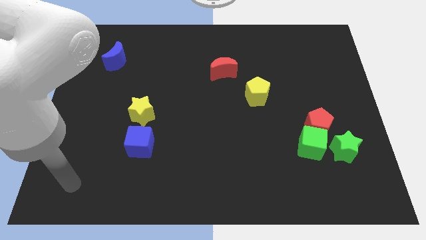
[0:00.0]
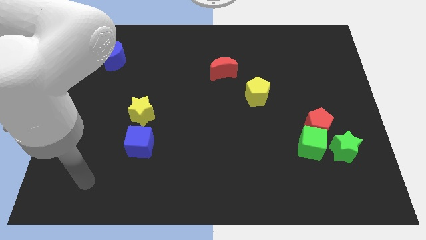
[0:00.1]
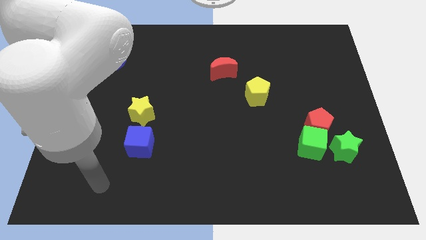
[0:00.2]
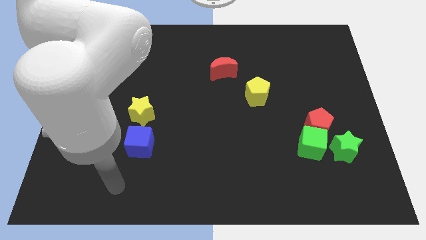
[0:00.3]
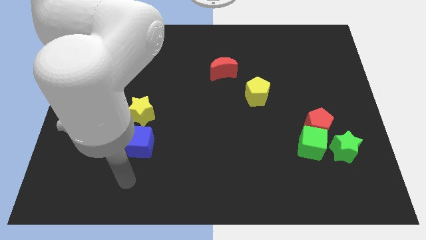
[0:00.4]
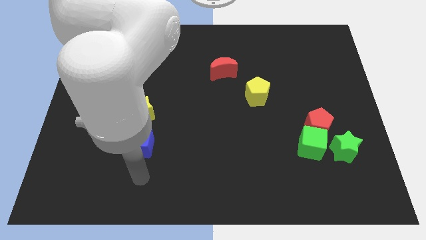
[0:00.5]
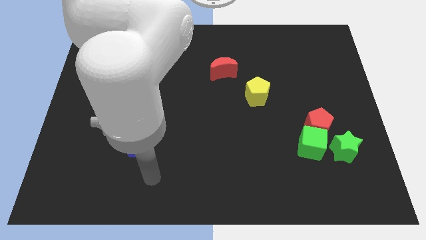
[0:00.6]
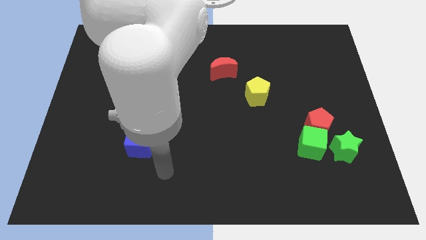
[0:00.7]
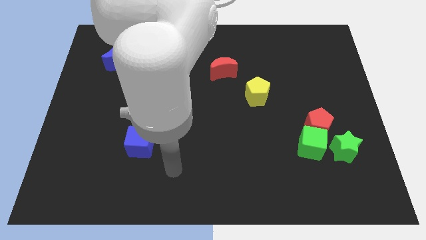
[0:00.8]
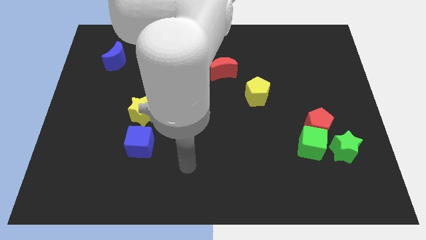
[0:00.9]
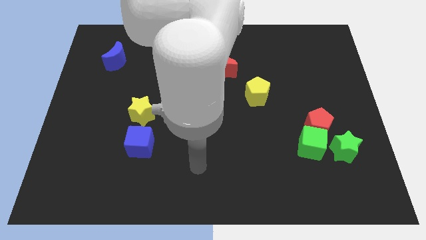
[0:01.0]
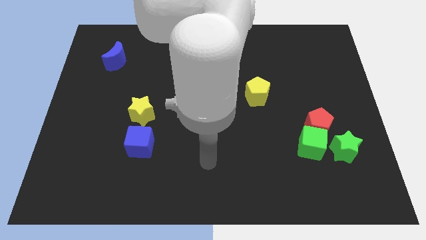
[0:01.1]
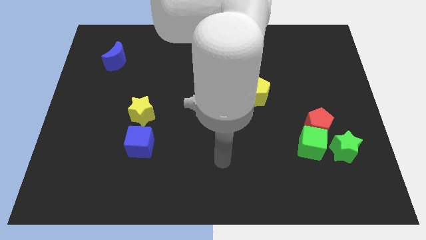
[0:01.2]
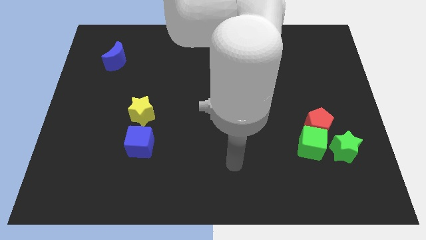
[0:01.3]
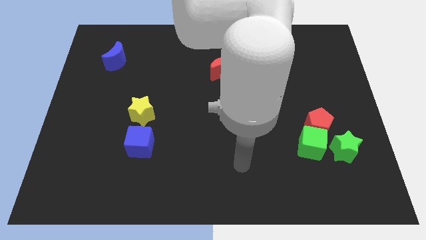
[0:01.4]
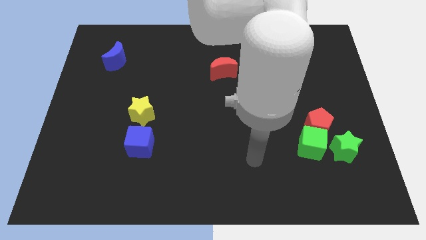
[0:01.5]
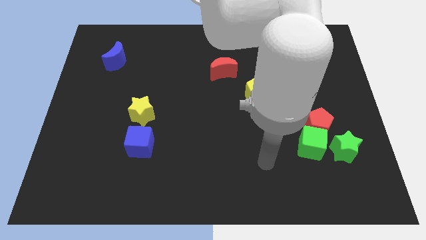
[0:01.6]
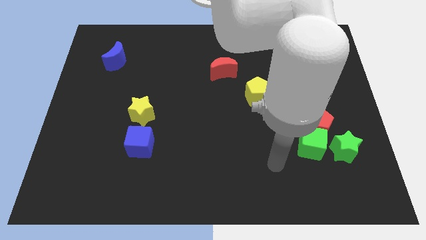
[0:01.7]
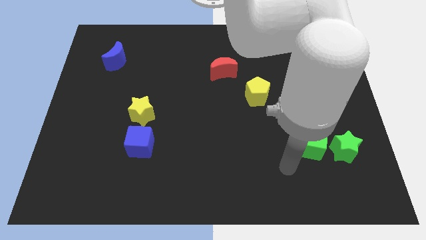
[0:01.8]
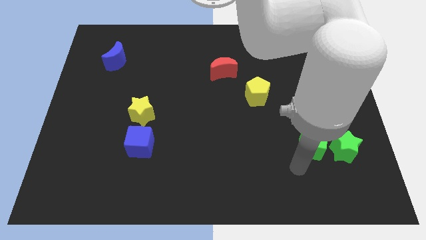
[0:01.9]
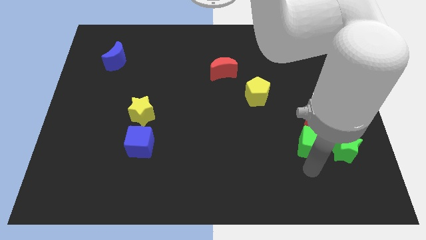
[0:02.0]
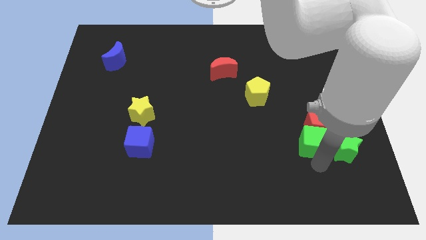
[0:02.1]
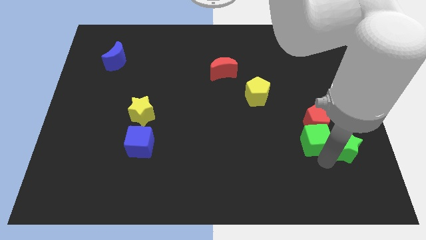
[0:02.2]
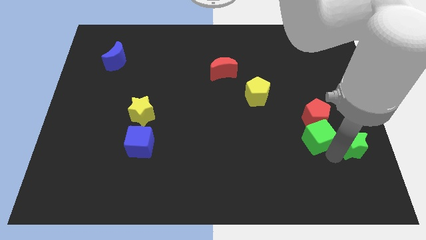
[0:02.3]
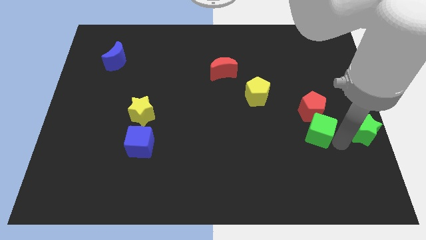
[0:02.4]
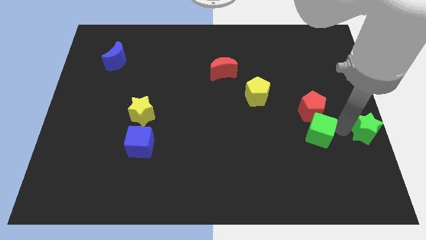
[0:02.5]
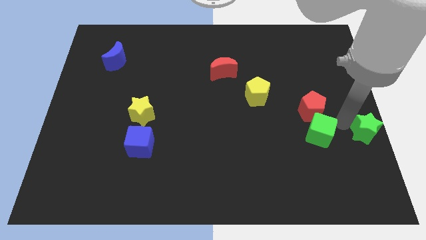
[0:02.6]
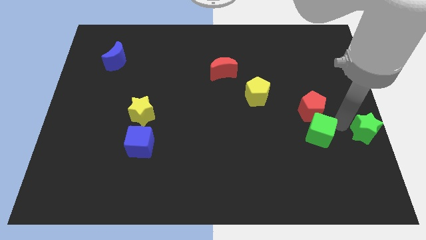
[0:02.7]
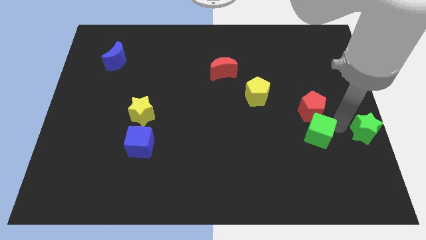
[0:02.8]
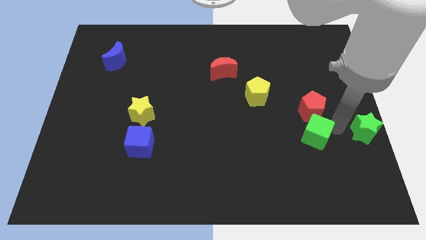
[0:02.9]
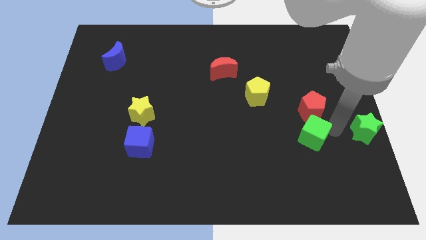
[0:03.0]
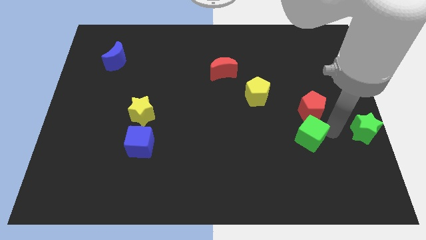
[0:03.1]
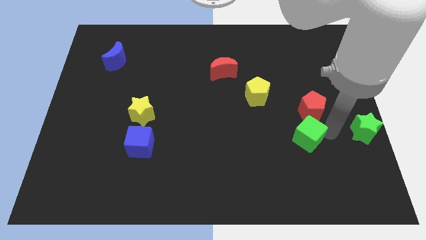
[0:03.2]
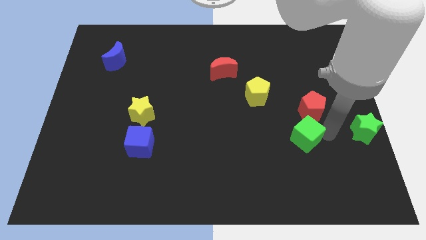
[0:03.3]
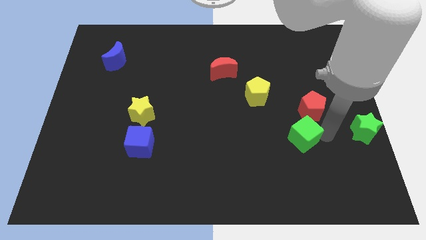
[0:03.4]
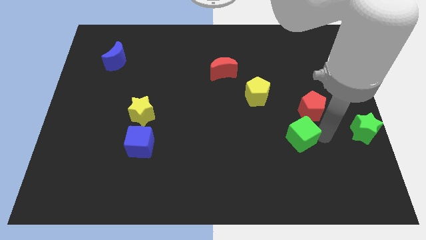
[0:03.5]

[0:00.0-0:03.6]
separate the green cube from the red pentagon and green star

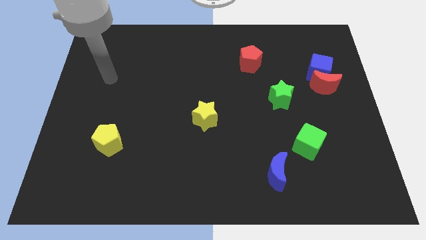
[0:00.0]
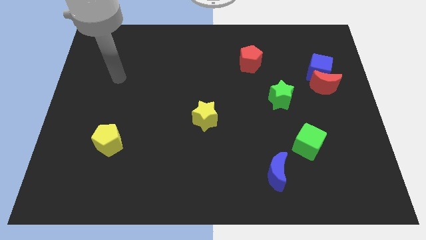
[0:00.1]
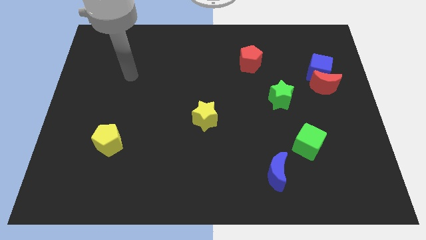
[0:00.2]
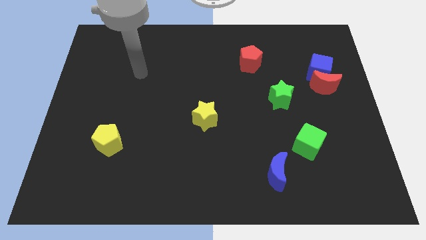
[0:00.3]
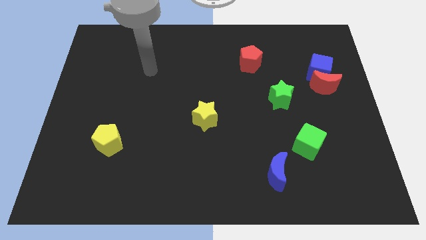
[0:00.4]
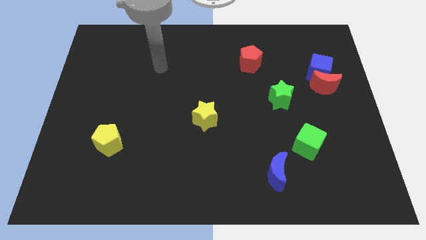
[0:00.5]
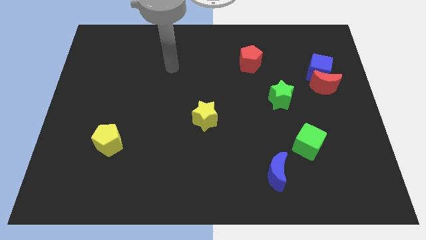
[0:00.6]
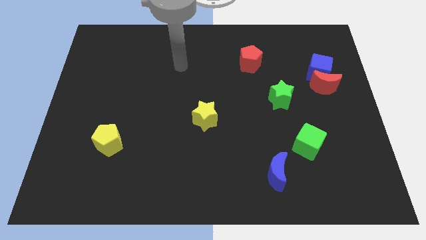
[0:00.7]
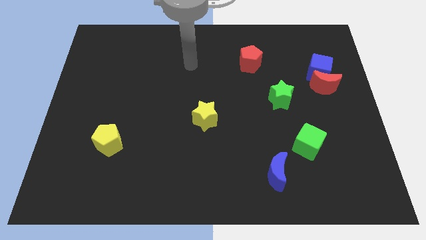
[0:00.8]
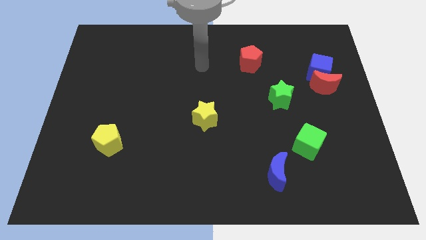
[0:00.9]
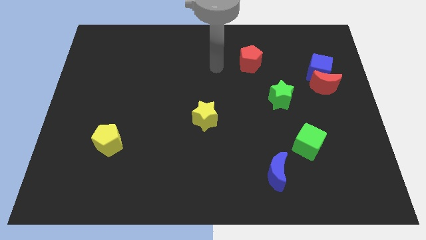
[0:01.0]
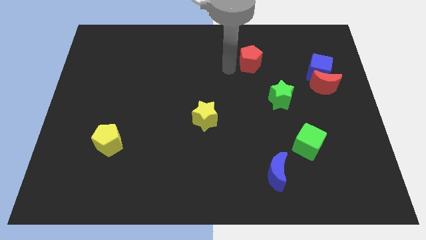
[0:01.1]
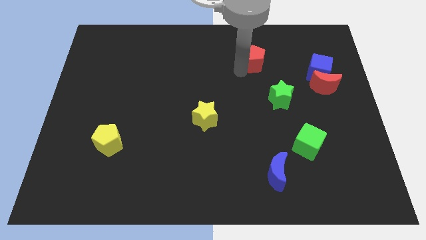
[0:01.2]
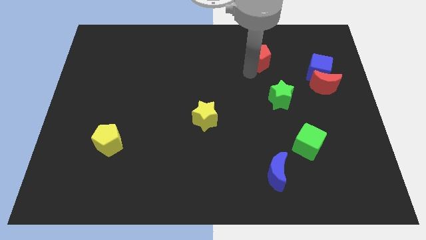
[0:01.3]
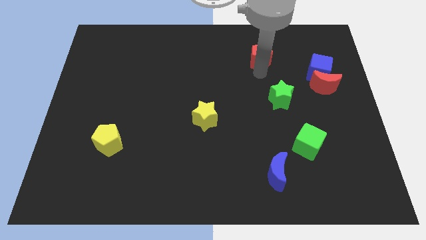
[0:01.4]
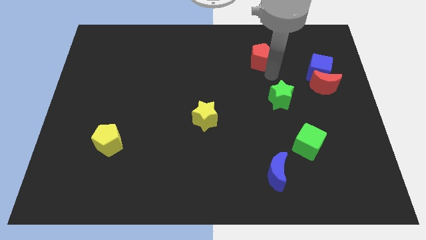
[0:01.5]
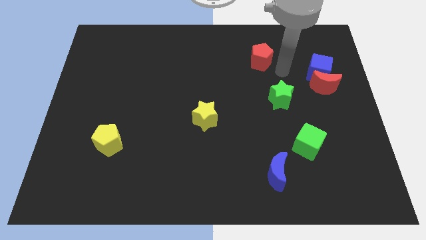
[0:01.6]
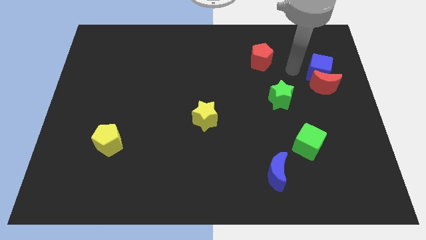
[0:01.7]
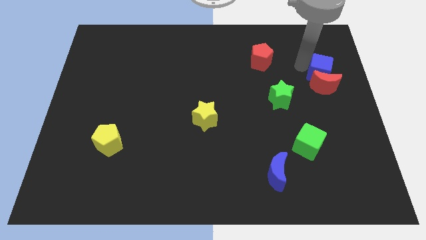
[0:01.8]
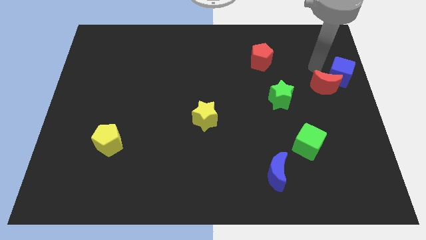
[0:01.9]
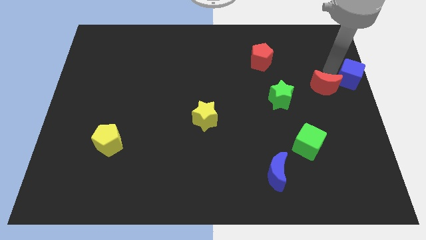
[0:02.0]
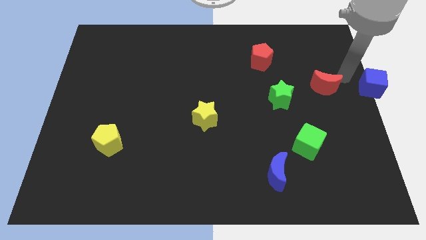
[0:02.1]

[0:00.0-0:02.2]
separate the red moon from the blue cube

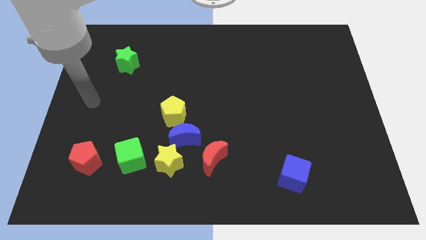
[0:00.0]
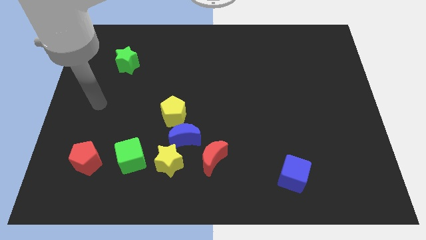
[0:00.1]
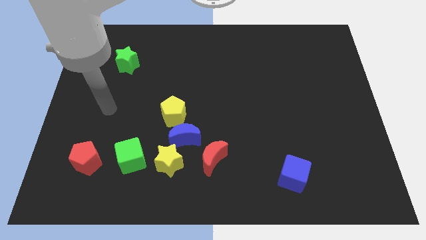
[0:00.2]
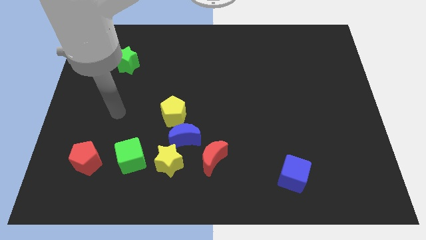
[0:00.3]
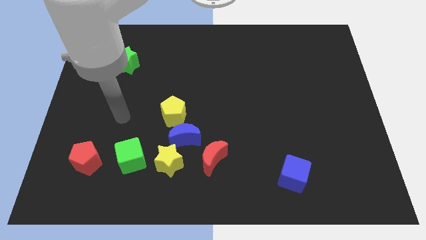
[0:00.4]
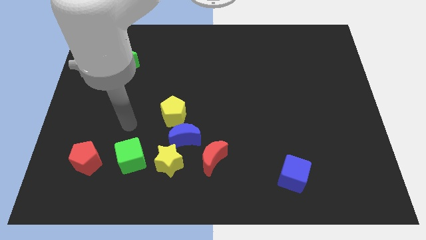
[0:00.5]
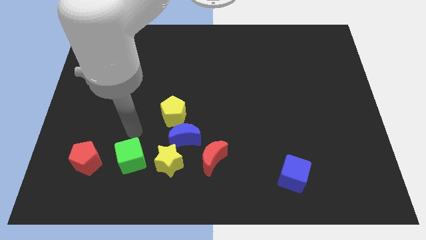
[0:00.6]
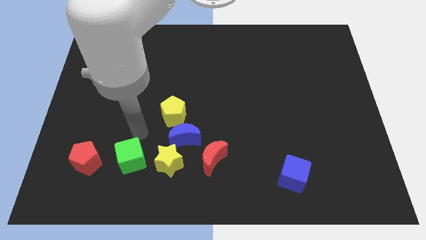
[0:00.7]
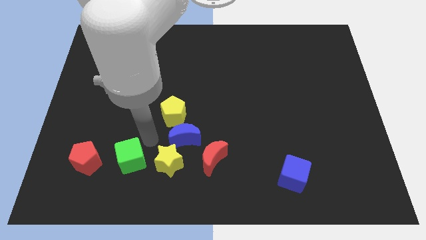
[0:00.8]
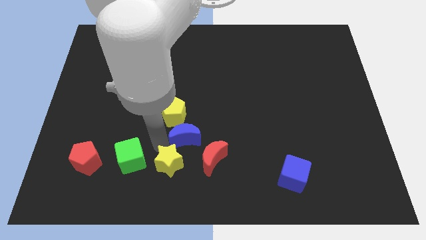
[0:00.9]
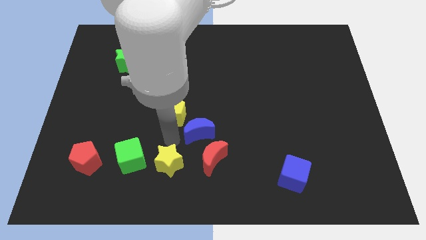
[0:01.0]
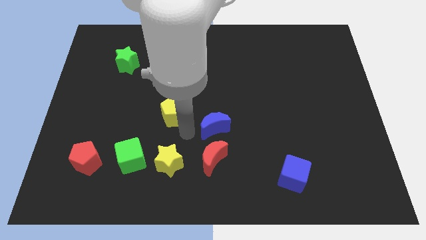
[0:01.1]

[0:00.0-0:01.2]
move the yellow pentagon away from the blue moon

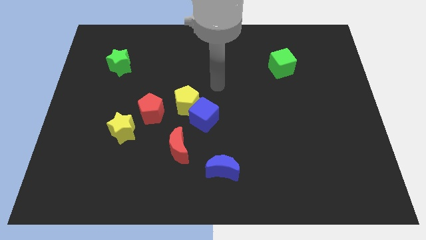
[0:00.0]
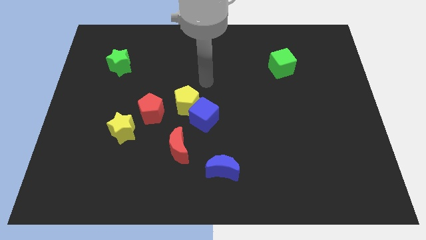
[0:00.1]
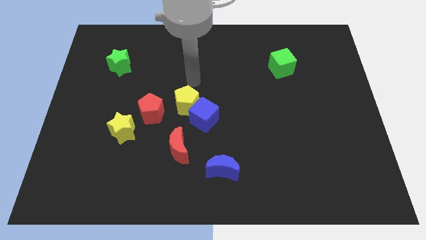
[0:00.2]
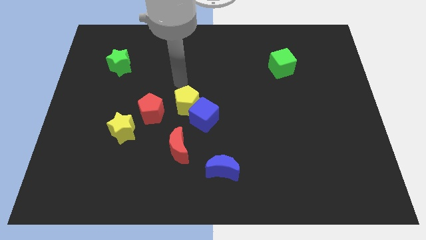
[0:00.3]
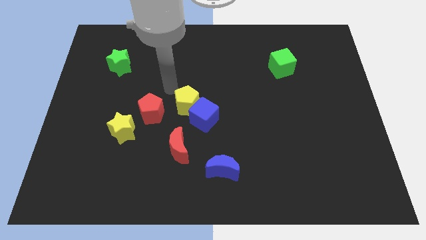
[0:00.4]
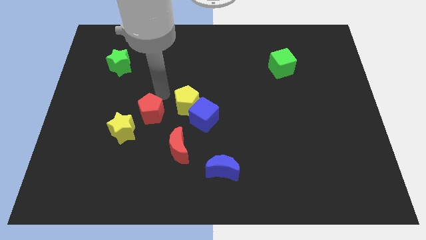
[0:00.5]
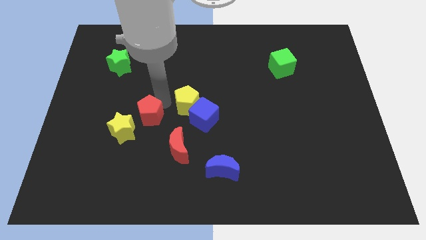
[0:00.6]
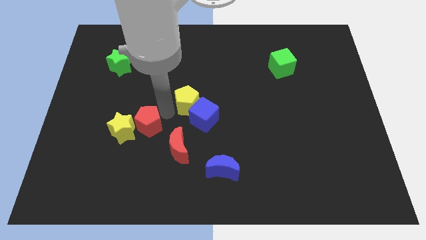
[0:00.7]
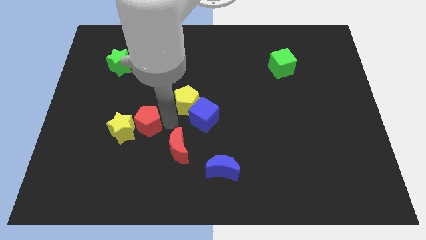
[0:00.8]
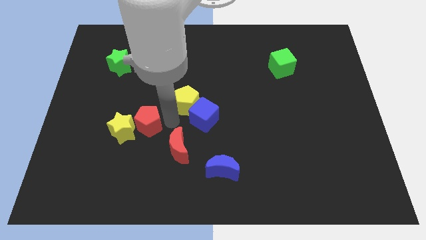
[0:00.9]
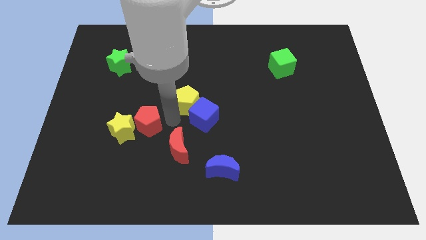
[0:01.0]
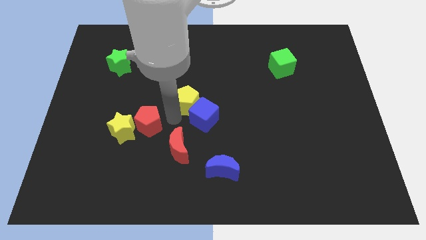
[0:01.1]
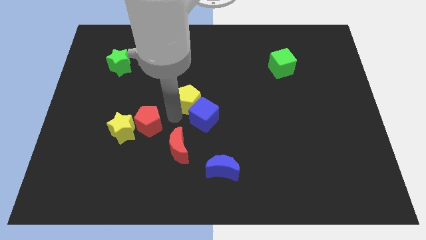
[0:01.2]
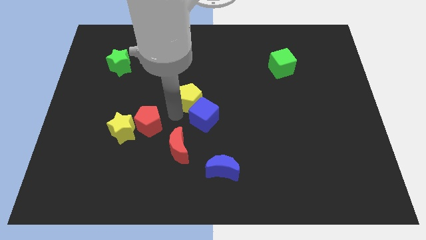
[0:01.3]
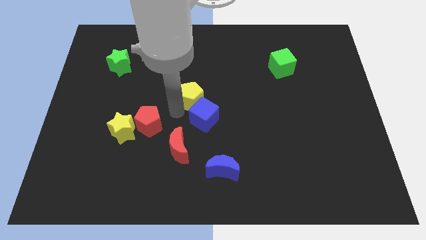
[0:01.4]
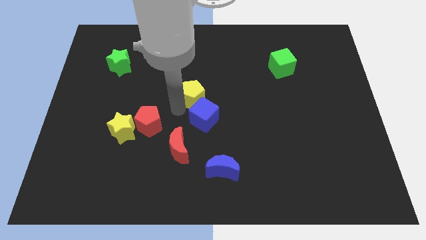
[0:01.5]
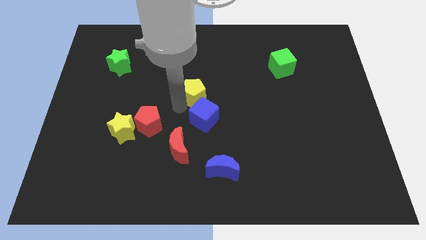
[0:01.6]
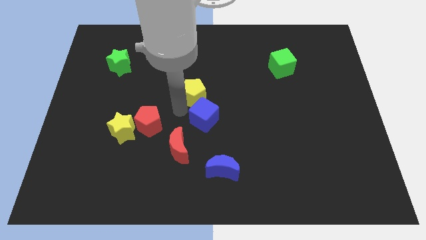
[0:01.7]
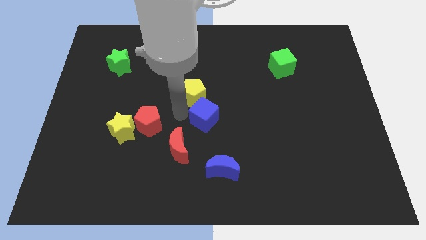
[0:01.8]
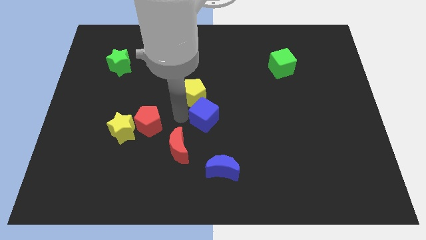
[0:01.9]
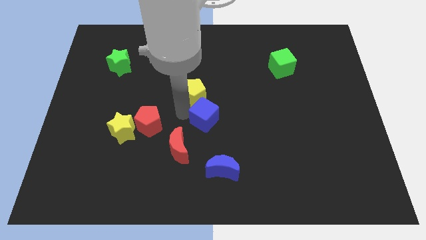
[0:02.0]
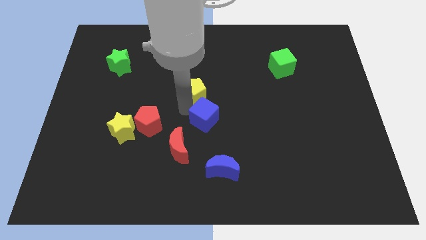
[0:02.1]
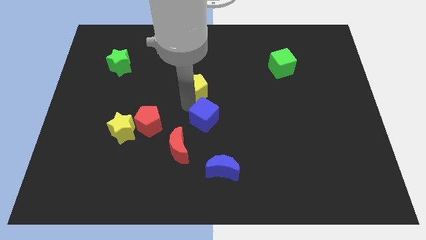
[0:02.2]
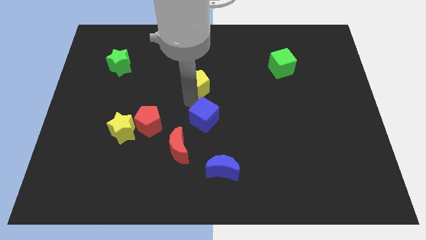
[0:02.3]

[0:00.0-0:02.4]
pull the yellow pentagon apart from the blue cube and red pentagon
